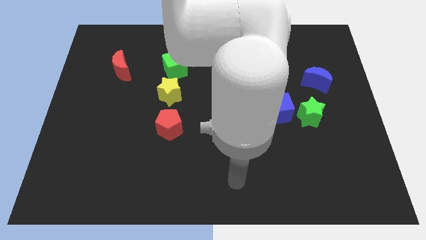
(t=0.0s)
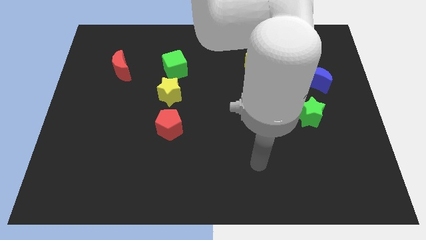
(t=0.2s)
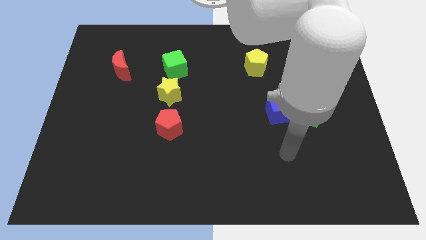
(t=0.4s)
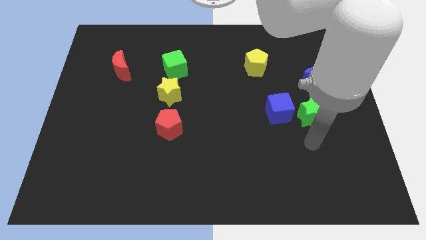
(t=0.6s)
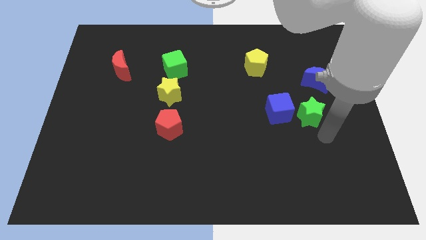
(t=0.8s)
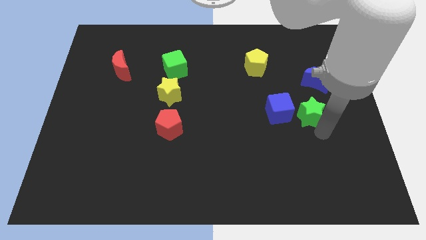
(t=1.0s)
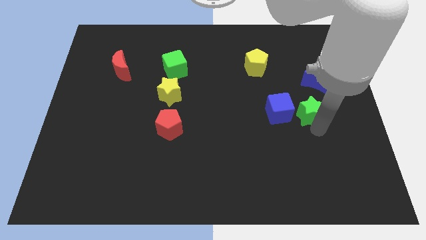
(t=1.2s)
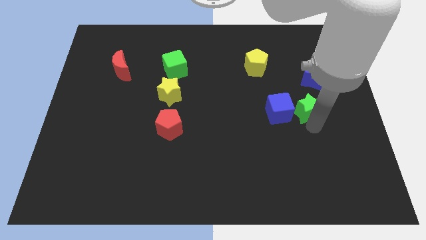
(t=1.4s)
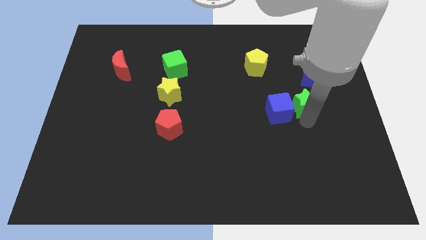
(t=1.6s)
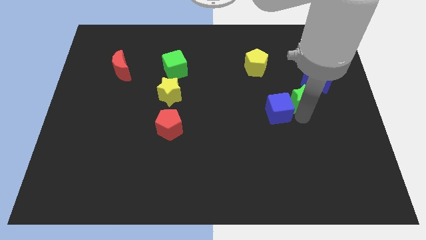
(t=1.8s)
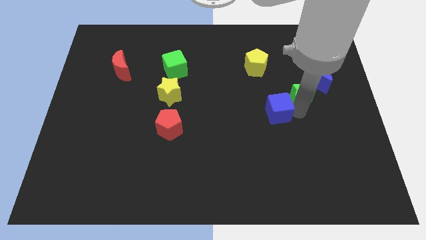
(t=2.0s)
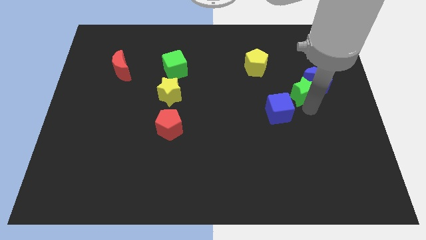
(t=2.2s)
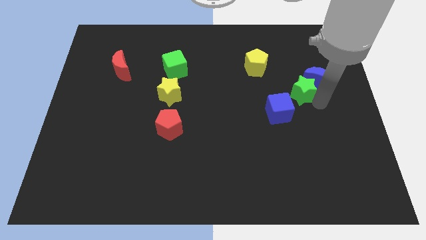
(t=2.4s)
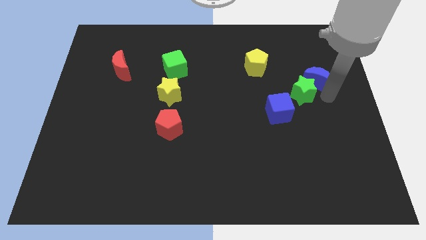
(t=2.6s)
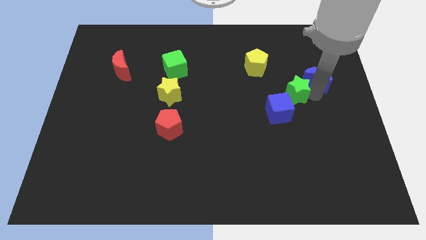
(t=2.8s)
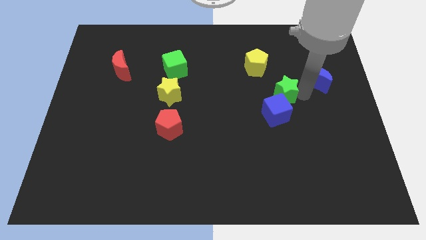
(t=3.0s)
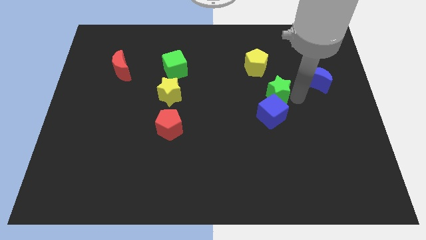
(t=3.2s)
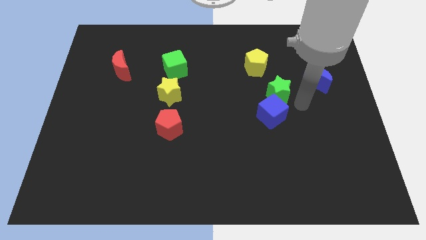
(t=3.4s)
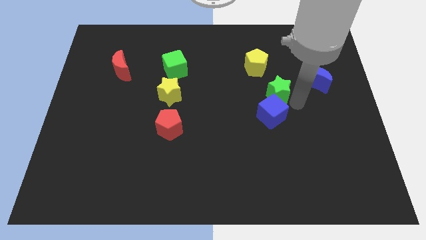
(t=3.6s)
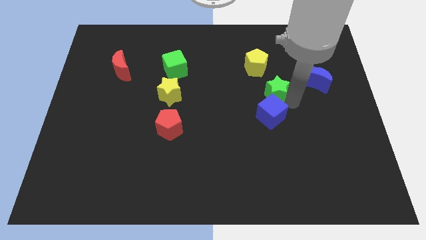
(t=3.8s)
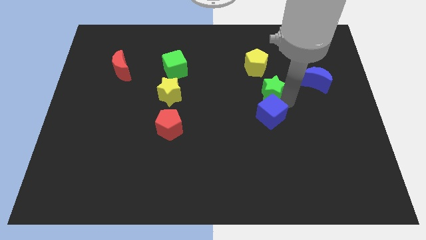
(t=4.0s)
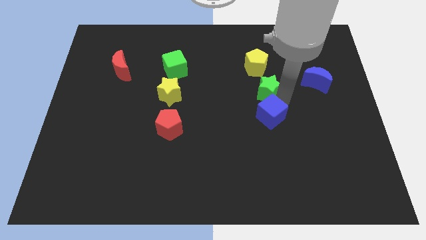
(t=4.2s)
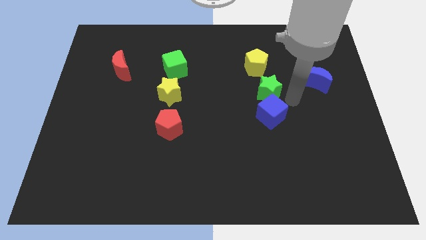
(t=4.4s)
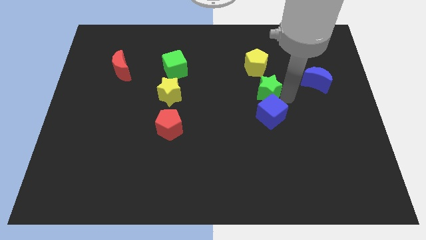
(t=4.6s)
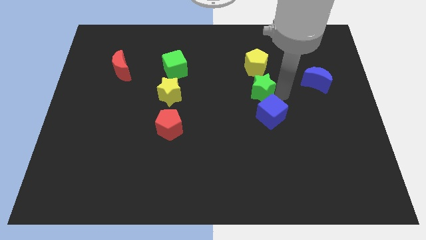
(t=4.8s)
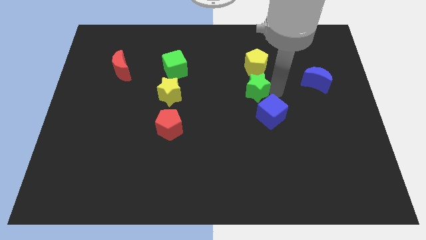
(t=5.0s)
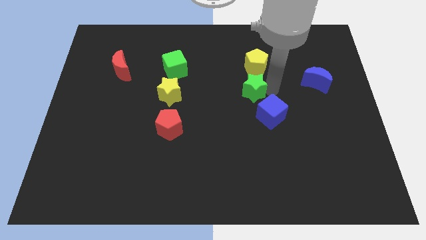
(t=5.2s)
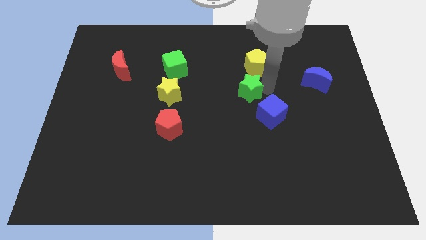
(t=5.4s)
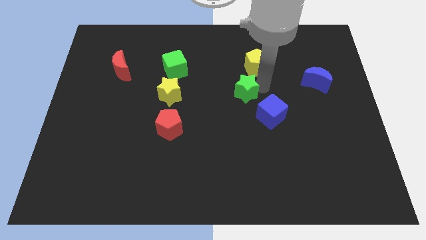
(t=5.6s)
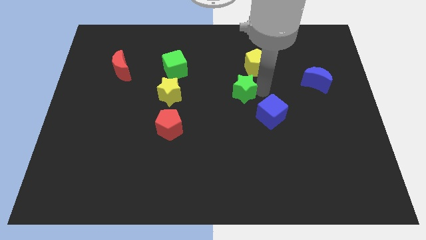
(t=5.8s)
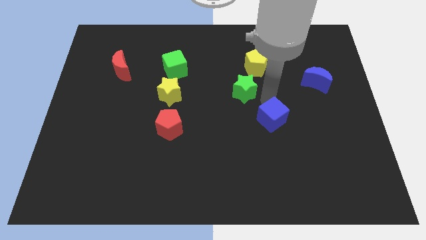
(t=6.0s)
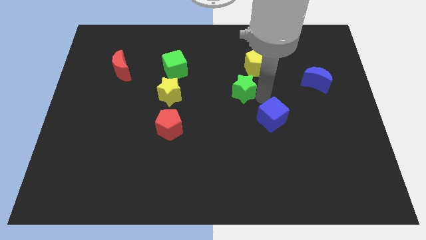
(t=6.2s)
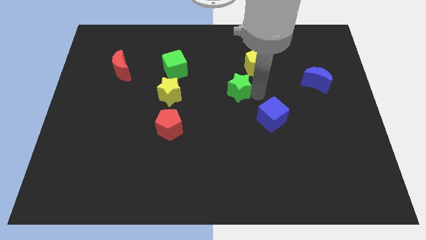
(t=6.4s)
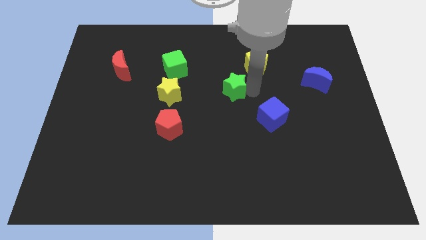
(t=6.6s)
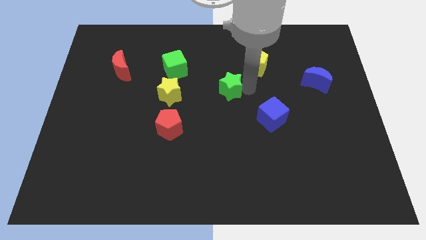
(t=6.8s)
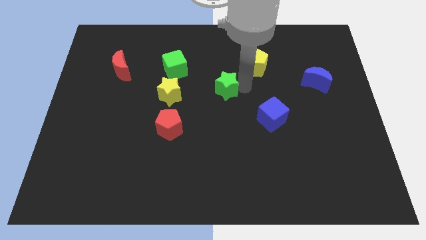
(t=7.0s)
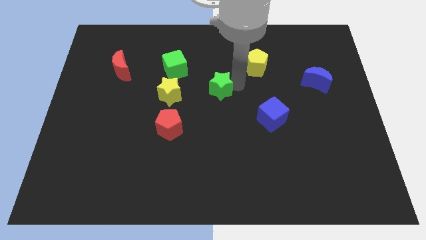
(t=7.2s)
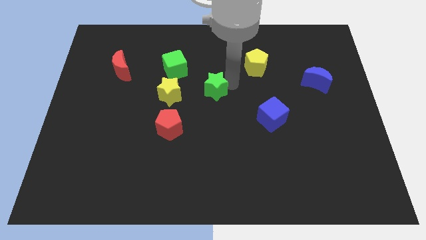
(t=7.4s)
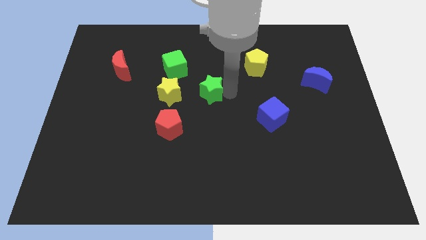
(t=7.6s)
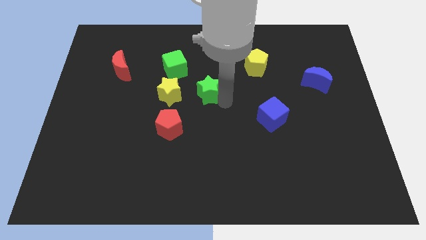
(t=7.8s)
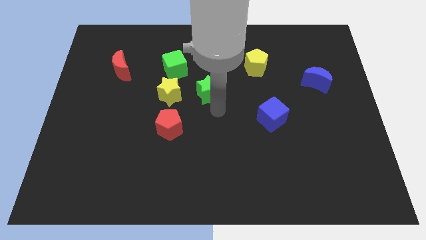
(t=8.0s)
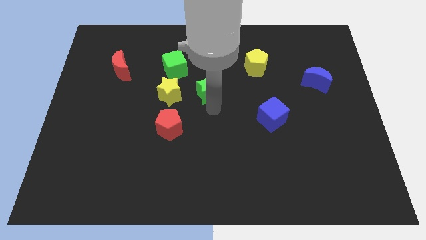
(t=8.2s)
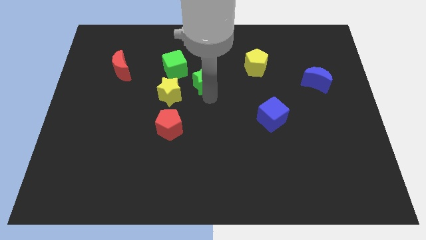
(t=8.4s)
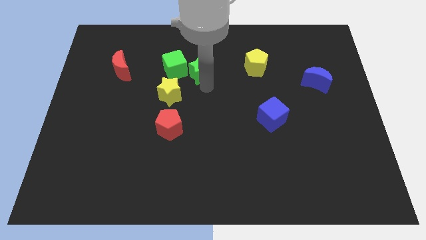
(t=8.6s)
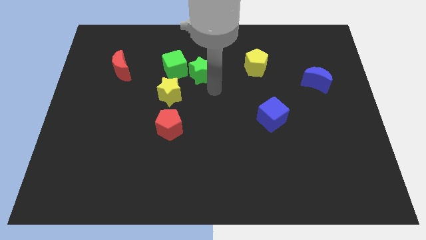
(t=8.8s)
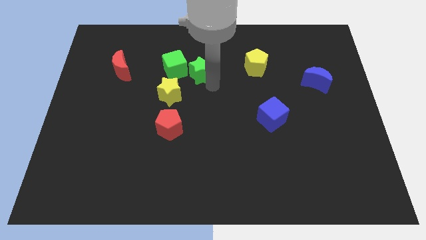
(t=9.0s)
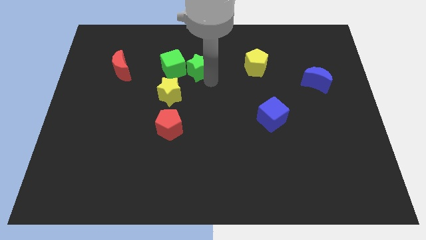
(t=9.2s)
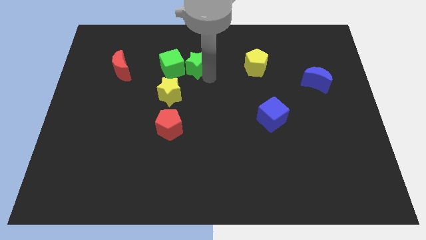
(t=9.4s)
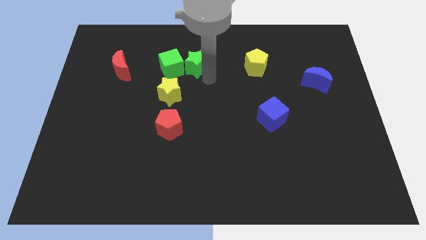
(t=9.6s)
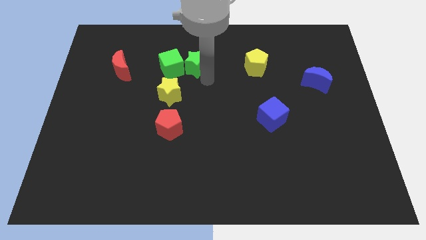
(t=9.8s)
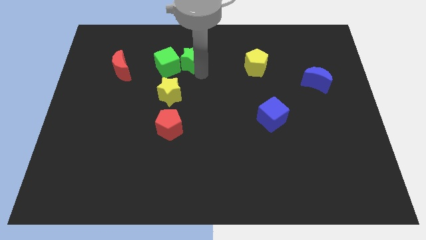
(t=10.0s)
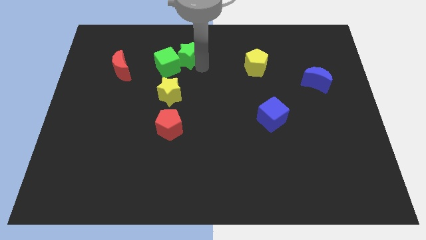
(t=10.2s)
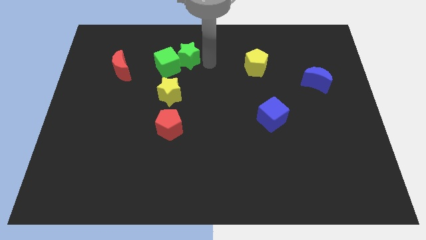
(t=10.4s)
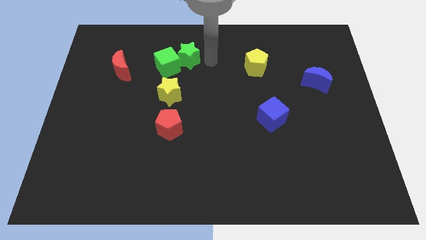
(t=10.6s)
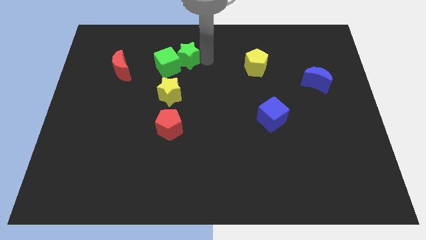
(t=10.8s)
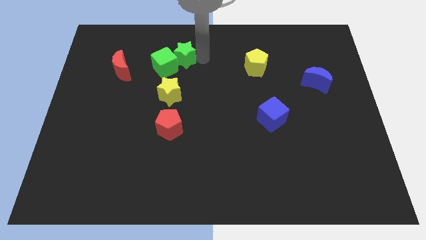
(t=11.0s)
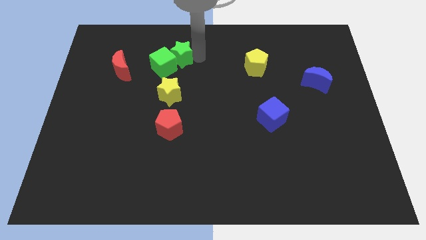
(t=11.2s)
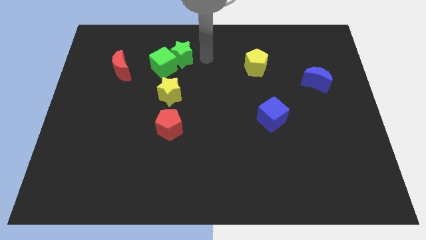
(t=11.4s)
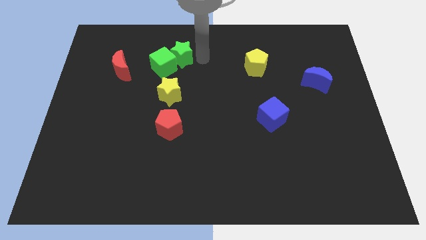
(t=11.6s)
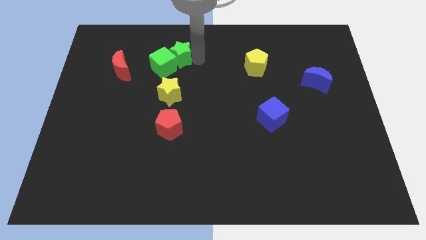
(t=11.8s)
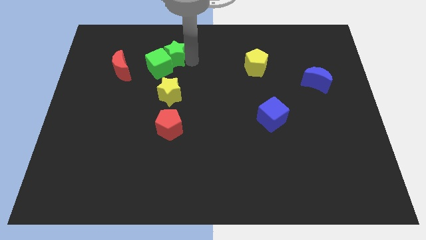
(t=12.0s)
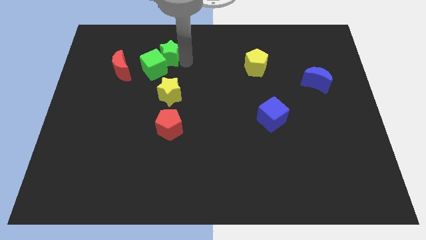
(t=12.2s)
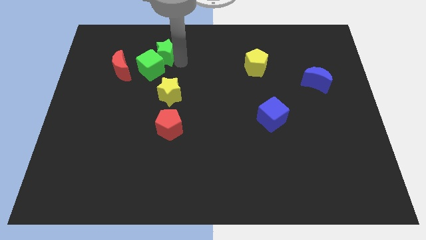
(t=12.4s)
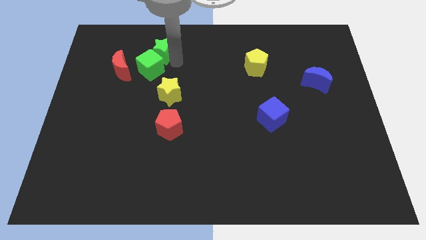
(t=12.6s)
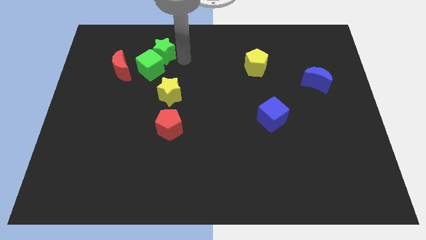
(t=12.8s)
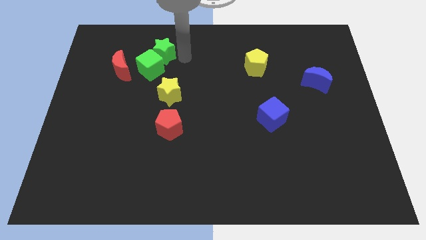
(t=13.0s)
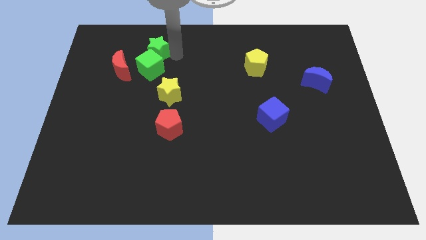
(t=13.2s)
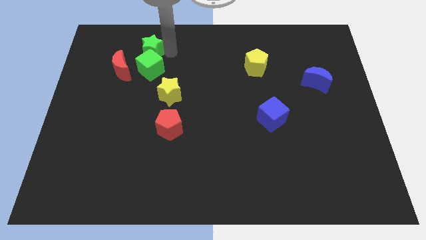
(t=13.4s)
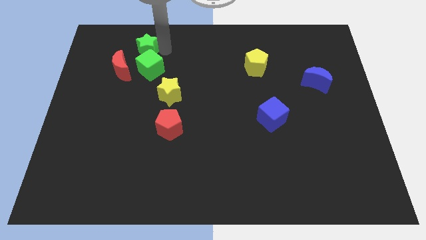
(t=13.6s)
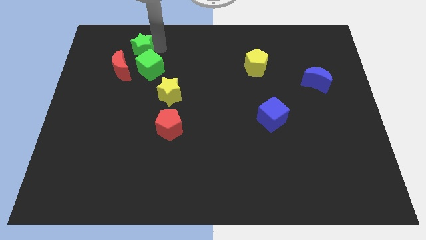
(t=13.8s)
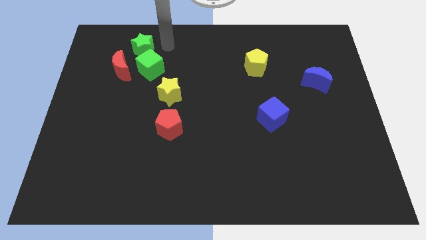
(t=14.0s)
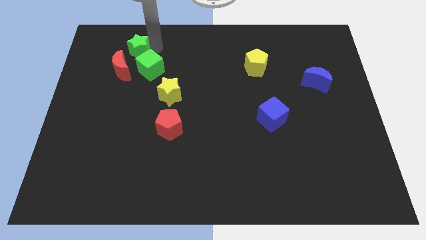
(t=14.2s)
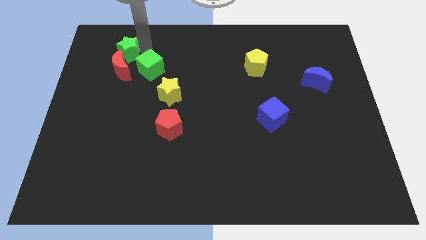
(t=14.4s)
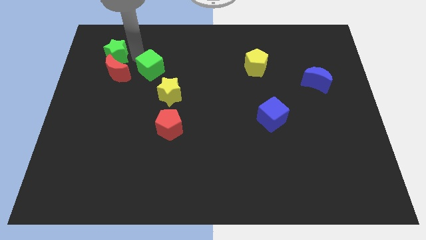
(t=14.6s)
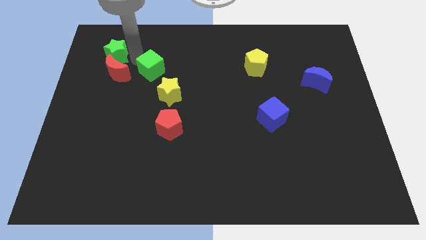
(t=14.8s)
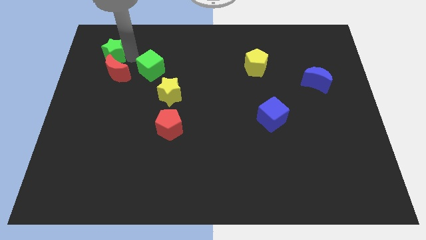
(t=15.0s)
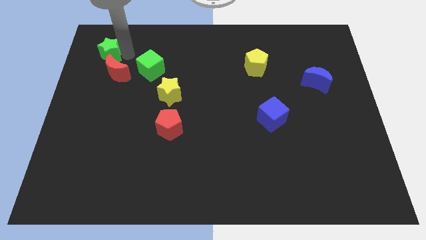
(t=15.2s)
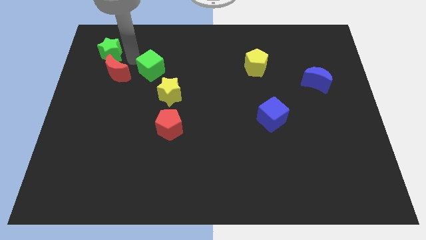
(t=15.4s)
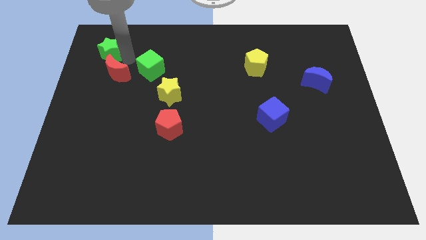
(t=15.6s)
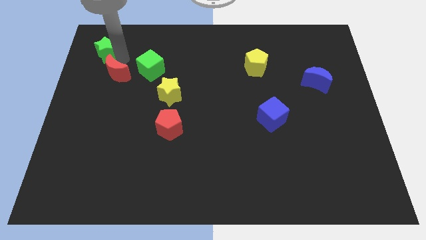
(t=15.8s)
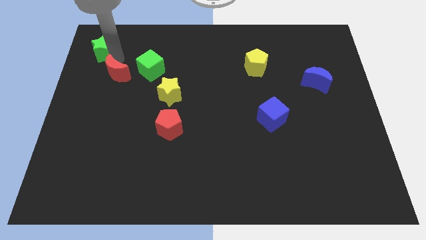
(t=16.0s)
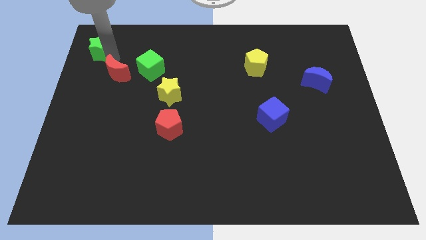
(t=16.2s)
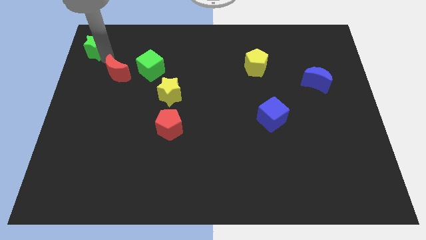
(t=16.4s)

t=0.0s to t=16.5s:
slide the green star to the top left of the board

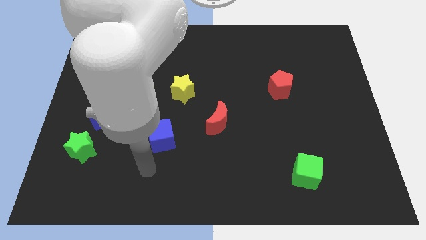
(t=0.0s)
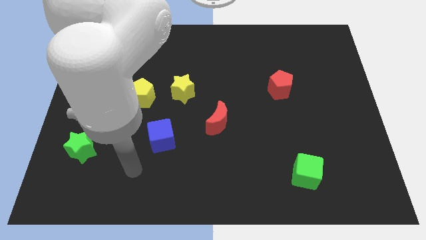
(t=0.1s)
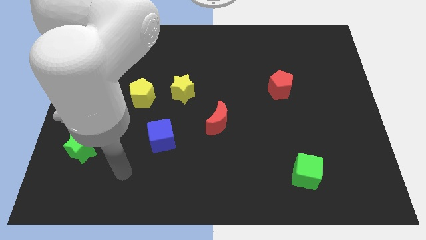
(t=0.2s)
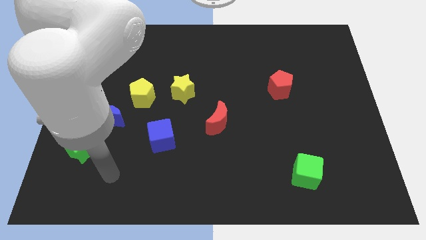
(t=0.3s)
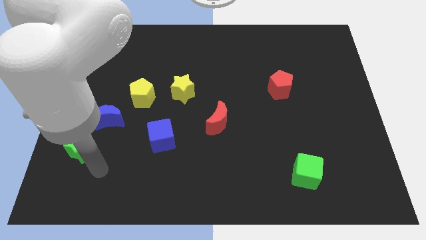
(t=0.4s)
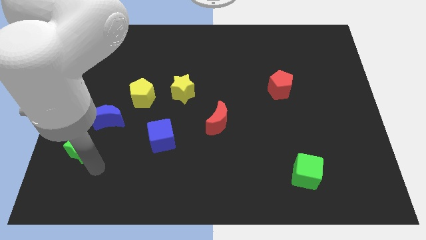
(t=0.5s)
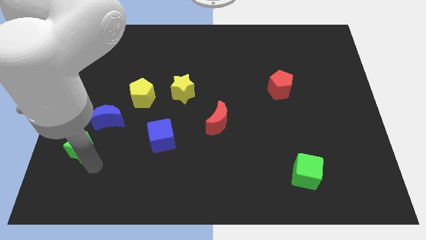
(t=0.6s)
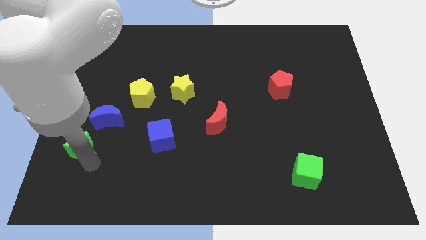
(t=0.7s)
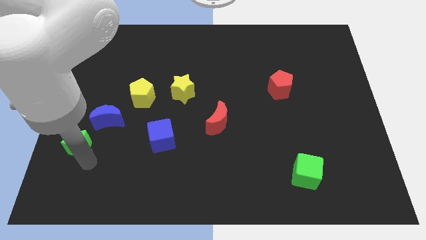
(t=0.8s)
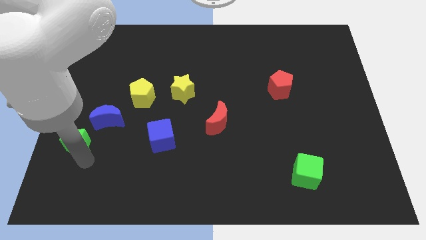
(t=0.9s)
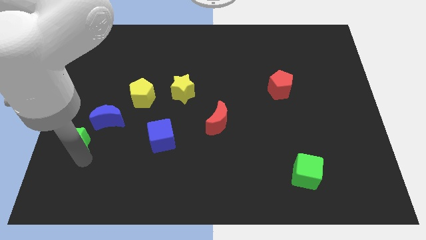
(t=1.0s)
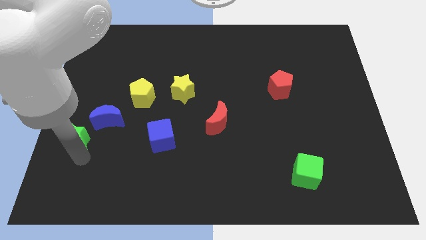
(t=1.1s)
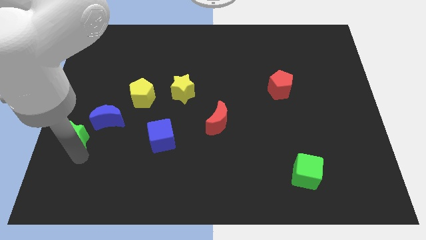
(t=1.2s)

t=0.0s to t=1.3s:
put the green star to the left side of the board
